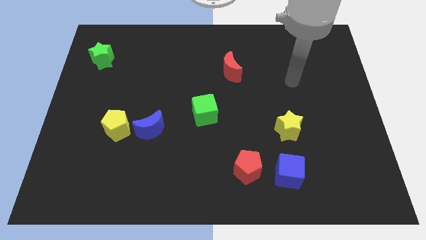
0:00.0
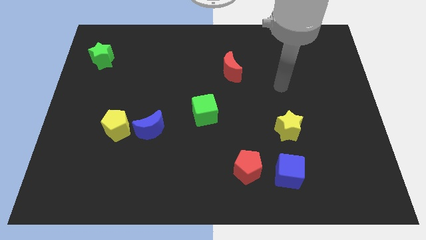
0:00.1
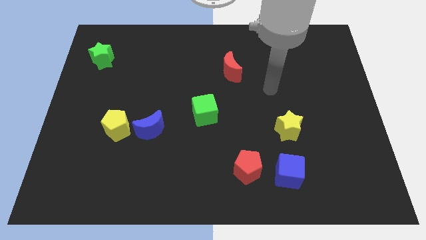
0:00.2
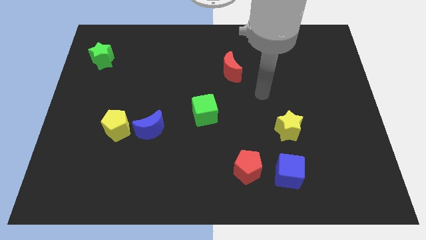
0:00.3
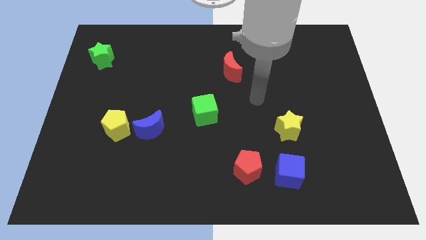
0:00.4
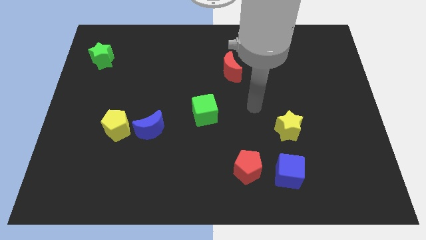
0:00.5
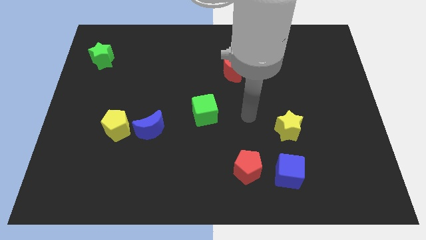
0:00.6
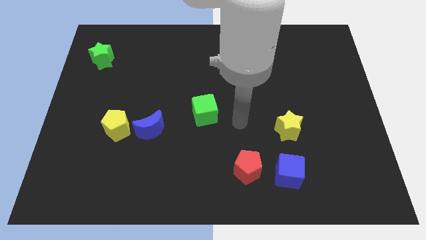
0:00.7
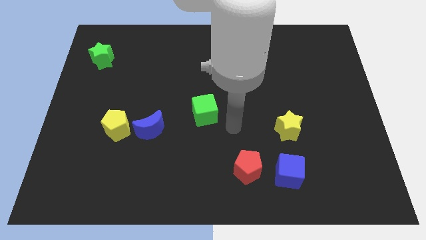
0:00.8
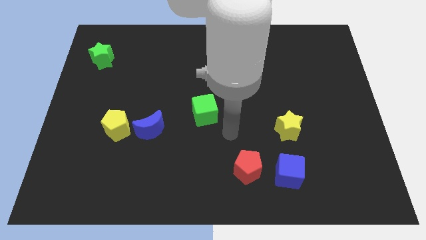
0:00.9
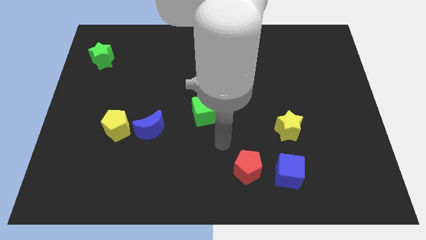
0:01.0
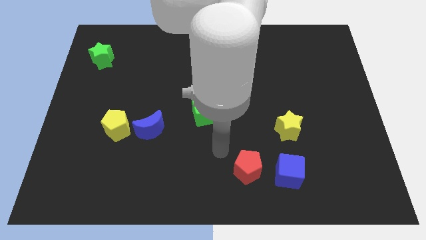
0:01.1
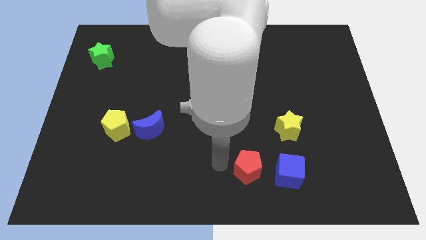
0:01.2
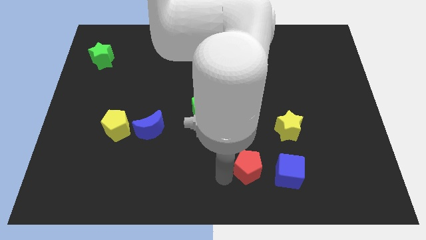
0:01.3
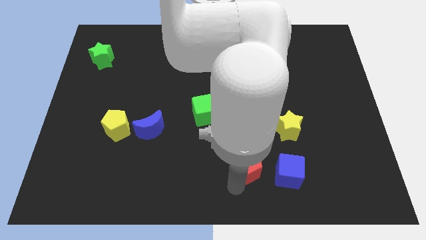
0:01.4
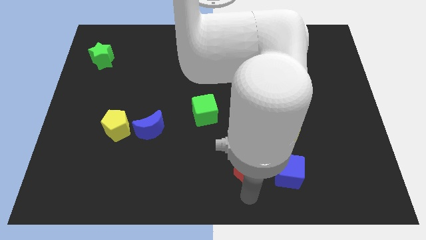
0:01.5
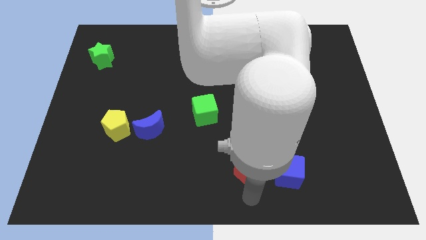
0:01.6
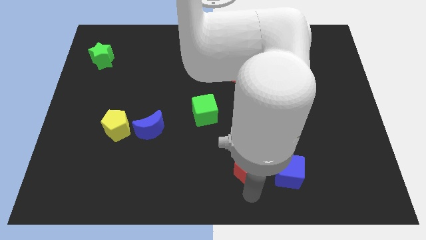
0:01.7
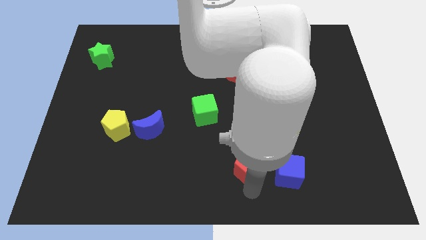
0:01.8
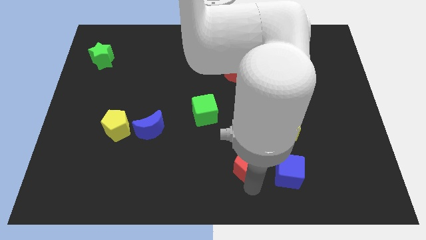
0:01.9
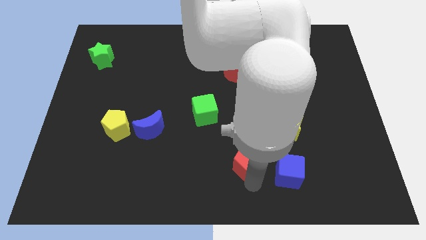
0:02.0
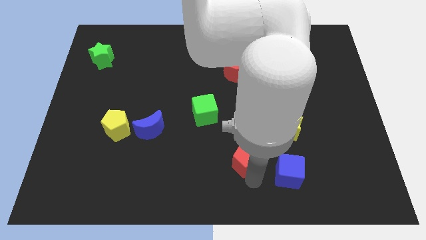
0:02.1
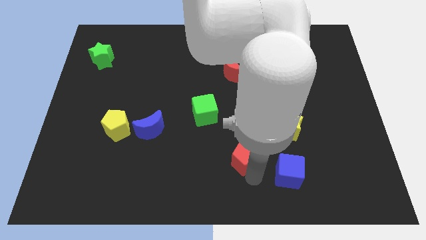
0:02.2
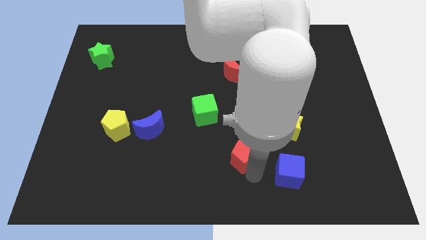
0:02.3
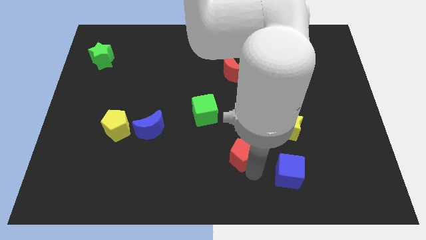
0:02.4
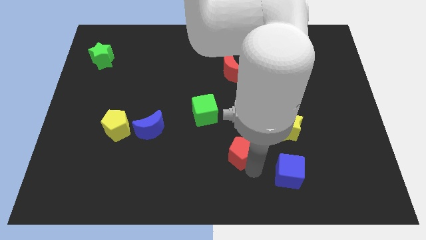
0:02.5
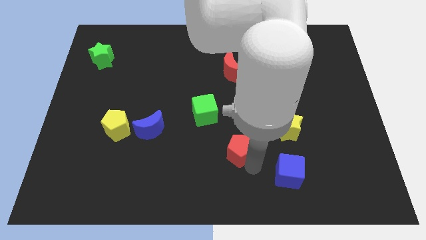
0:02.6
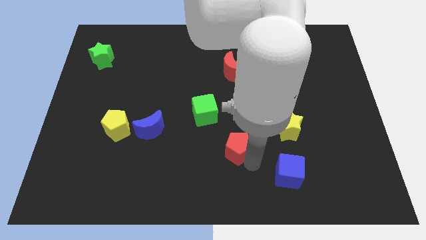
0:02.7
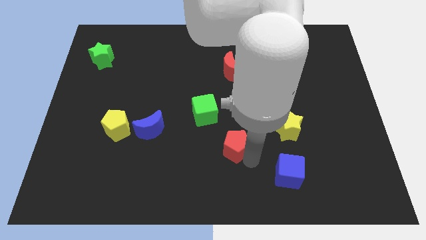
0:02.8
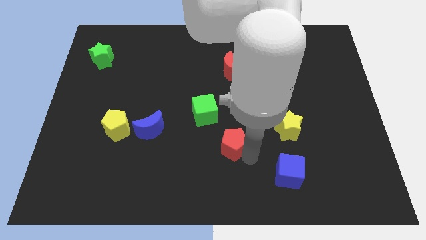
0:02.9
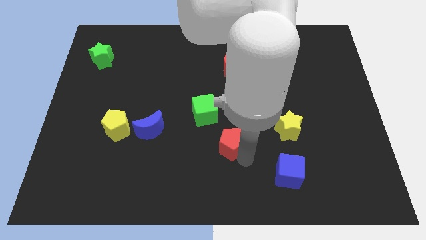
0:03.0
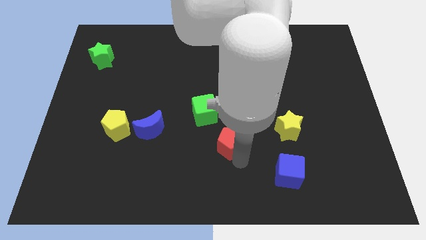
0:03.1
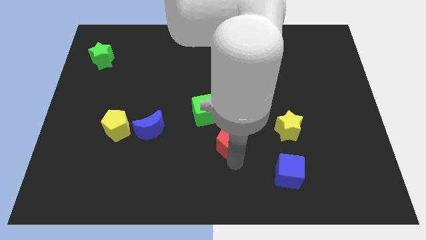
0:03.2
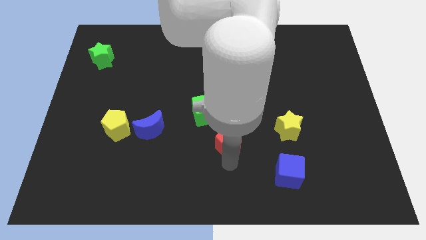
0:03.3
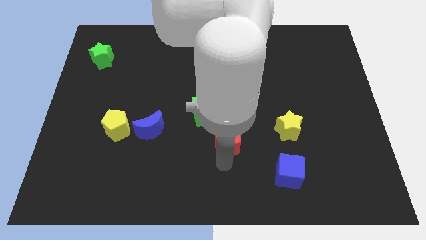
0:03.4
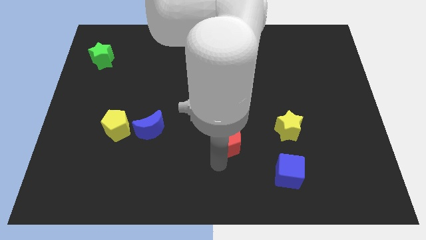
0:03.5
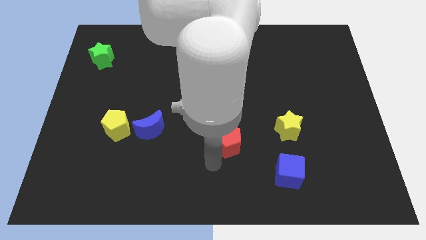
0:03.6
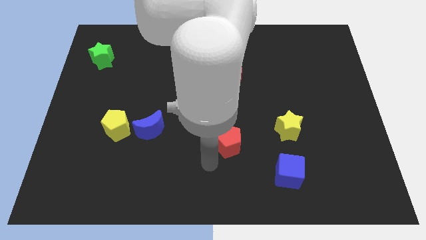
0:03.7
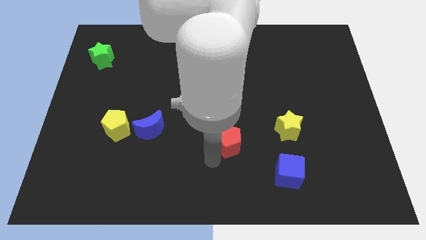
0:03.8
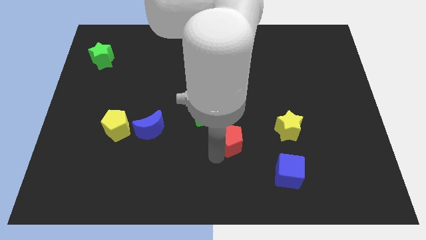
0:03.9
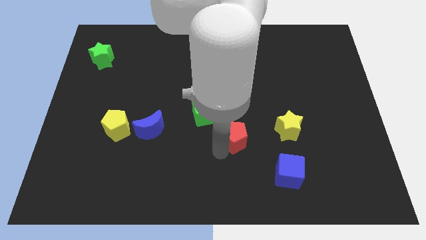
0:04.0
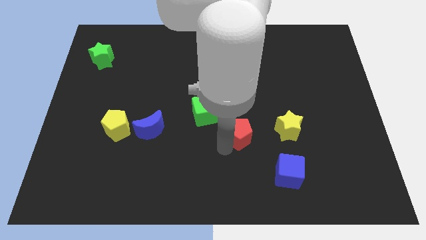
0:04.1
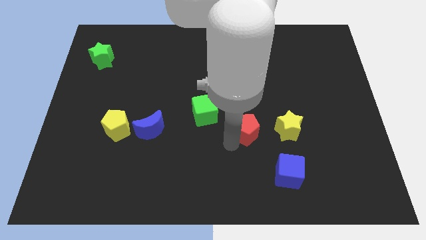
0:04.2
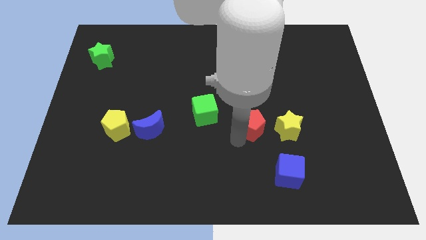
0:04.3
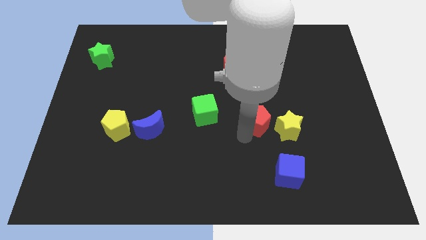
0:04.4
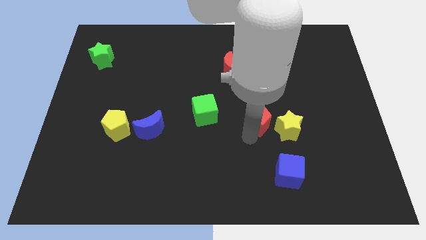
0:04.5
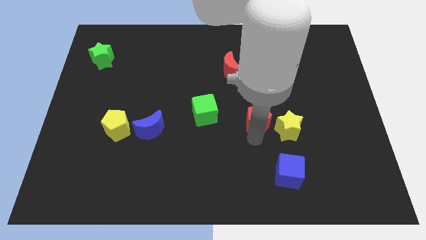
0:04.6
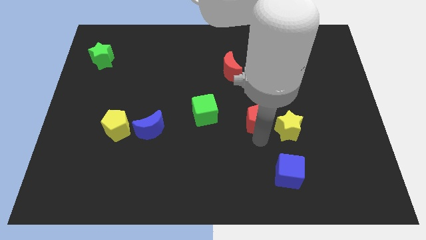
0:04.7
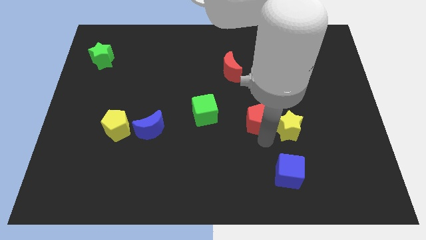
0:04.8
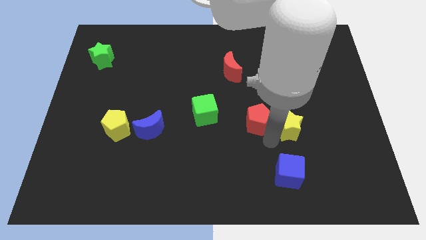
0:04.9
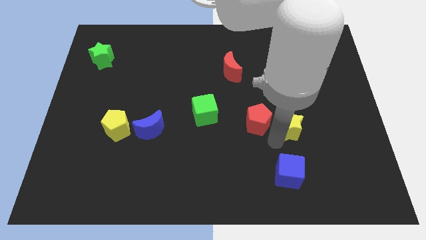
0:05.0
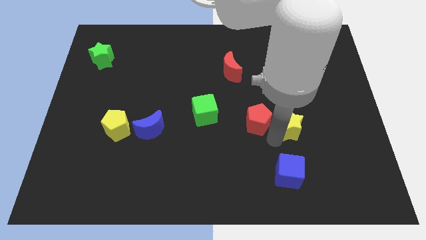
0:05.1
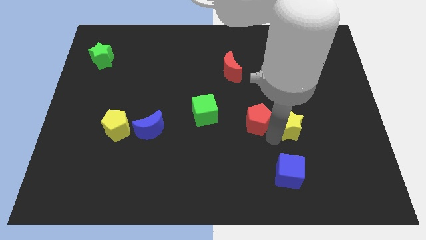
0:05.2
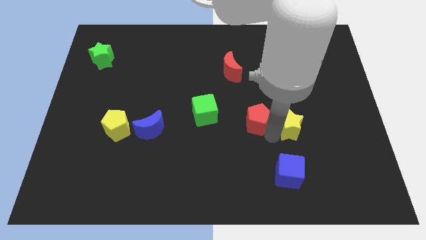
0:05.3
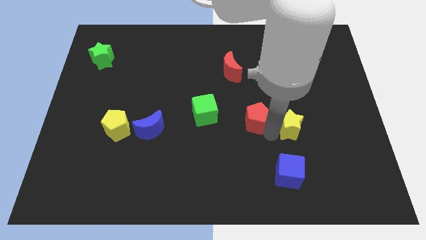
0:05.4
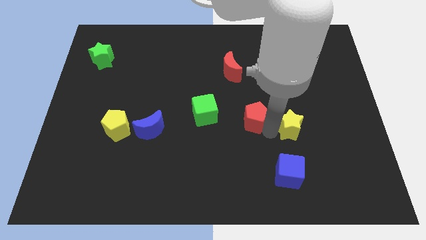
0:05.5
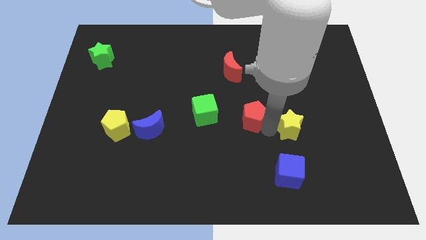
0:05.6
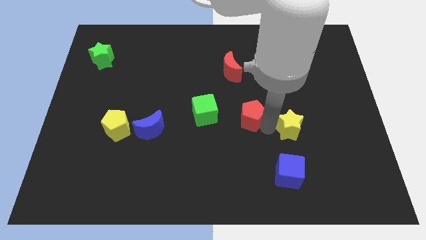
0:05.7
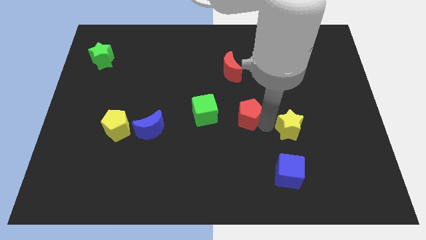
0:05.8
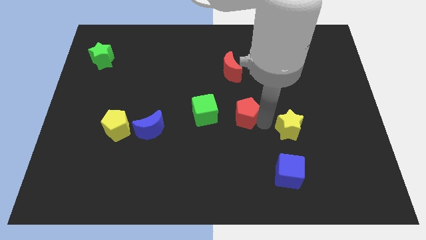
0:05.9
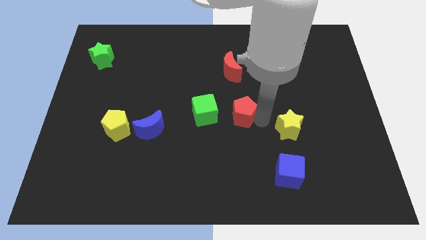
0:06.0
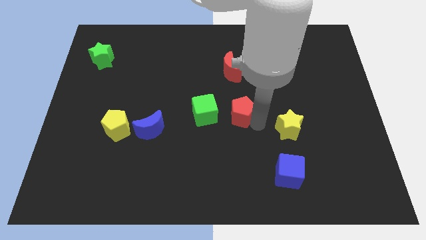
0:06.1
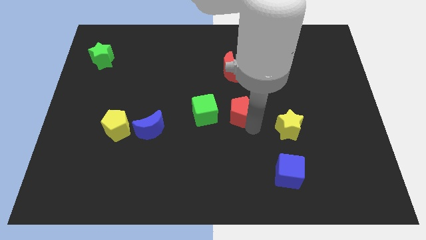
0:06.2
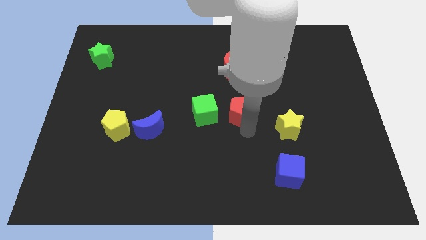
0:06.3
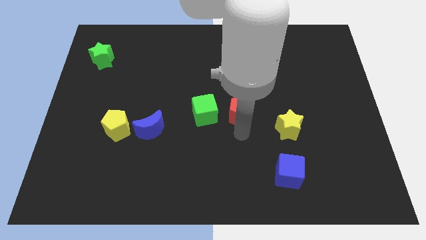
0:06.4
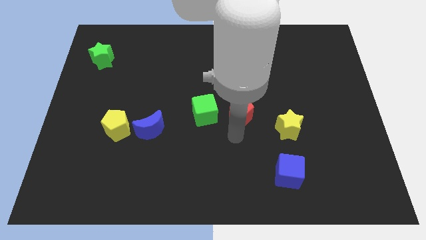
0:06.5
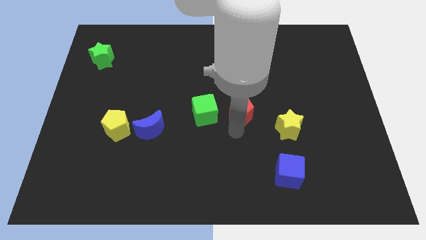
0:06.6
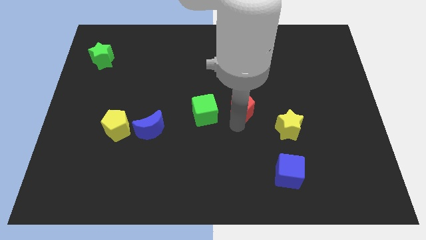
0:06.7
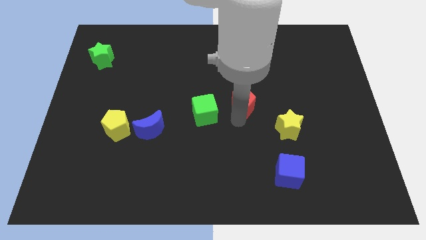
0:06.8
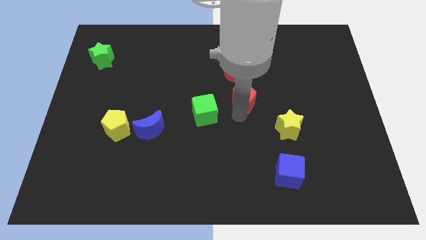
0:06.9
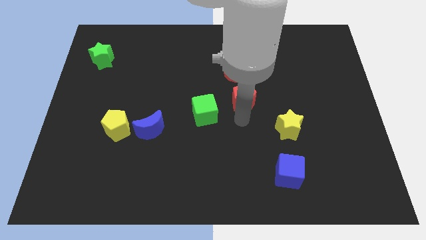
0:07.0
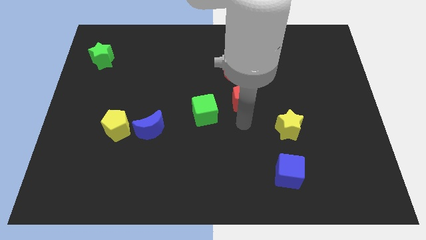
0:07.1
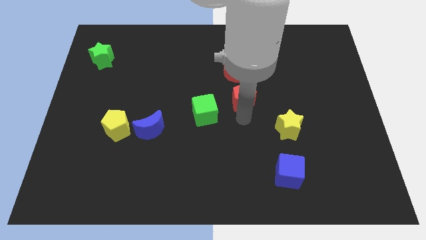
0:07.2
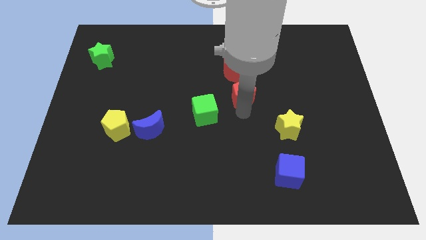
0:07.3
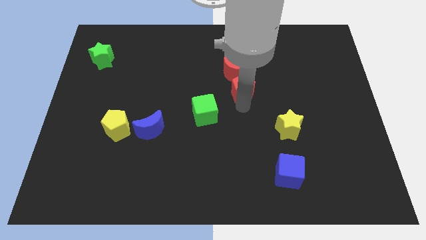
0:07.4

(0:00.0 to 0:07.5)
push the red pentagon up

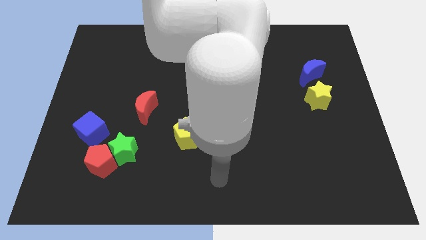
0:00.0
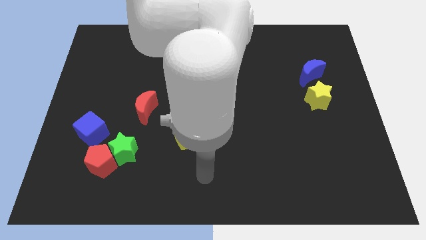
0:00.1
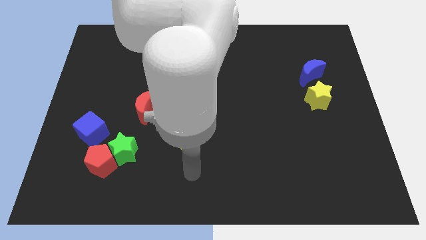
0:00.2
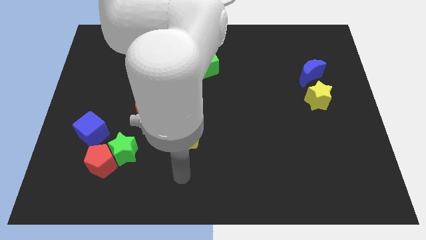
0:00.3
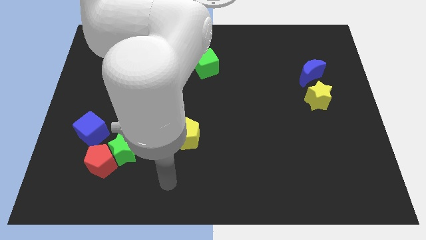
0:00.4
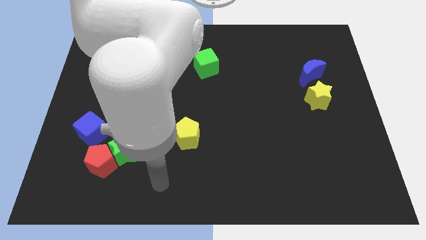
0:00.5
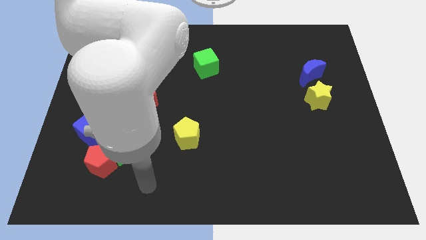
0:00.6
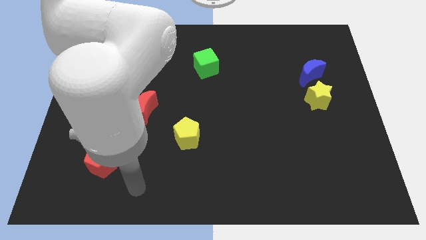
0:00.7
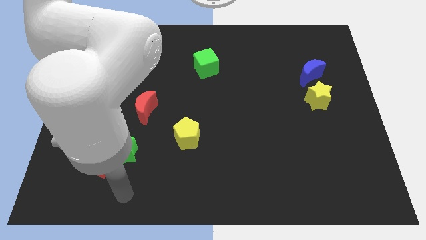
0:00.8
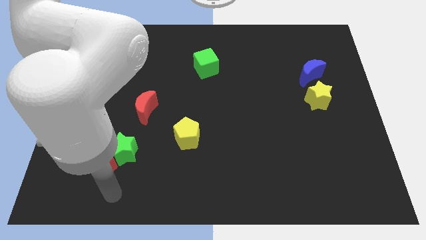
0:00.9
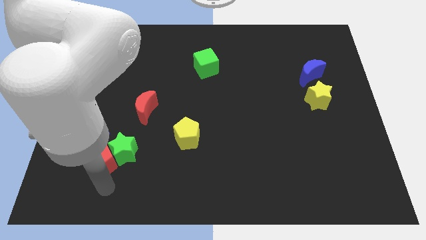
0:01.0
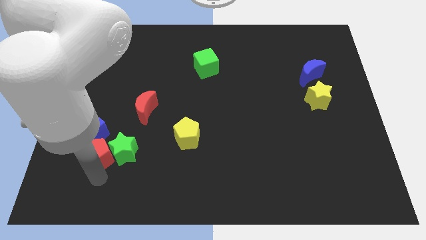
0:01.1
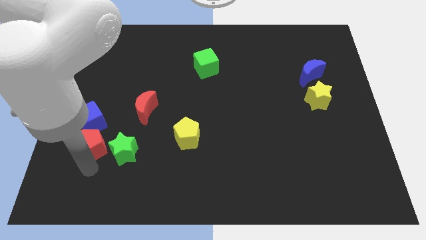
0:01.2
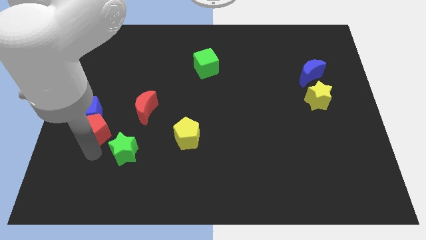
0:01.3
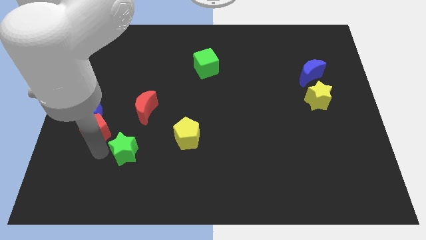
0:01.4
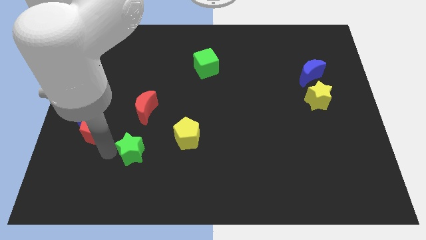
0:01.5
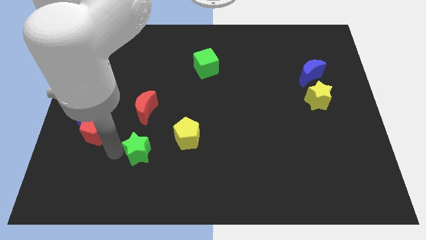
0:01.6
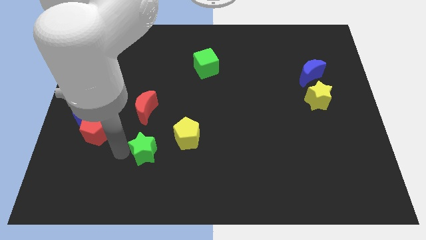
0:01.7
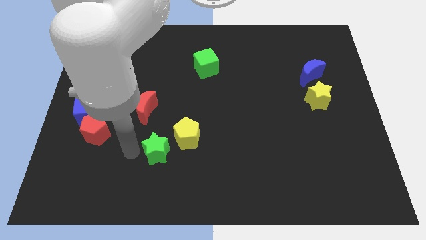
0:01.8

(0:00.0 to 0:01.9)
slide the green star right somewhat
